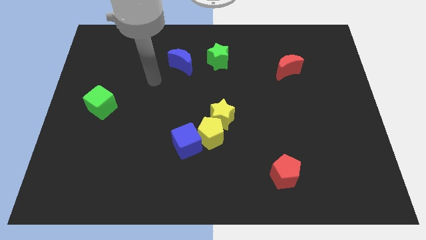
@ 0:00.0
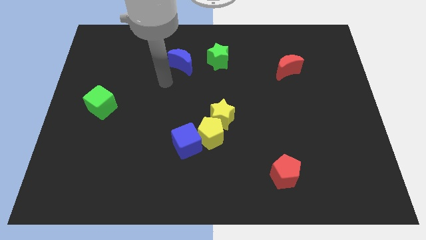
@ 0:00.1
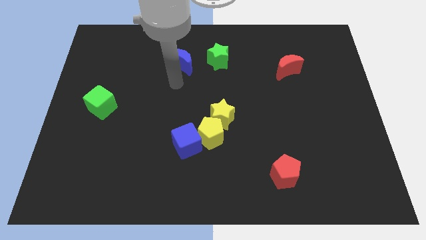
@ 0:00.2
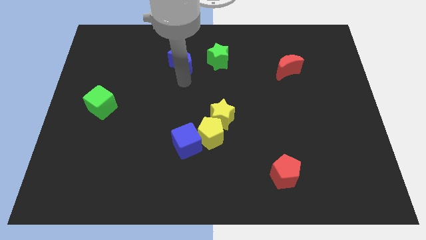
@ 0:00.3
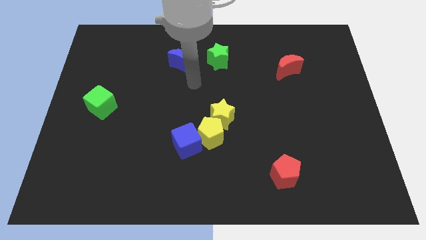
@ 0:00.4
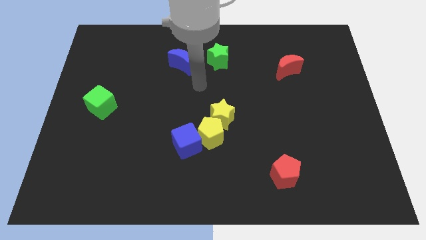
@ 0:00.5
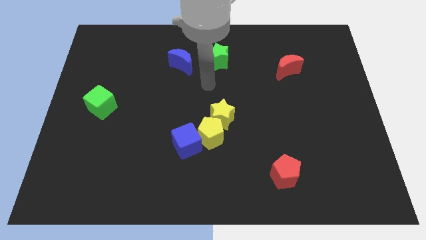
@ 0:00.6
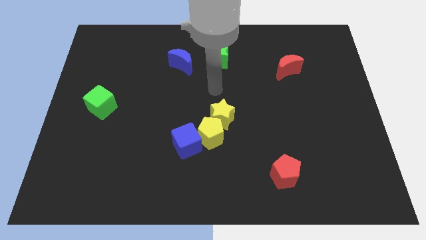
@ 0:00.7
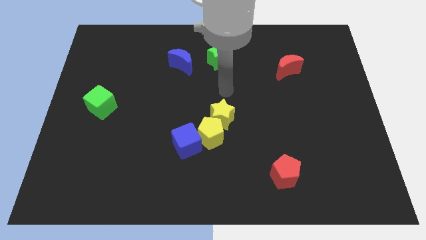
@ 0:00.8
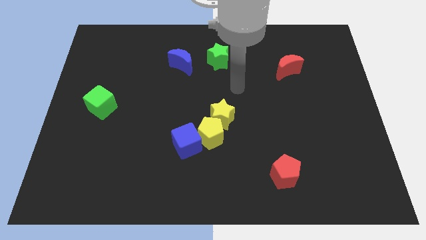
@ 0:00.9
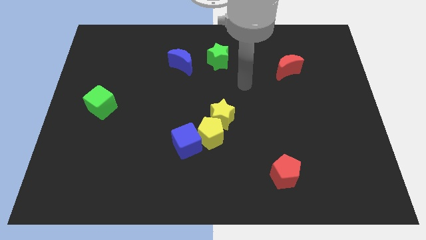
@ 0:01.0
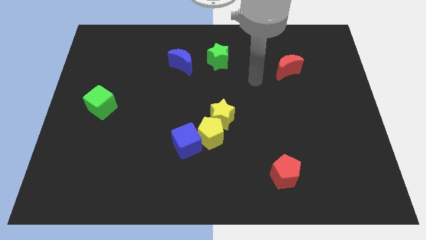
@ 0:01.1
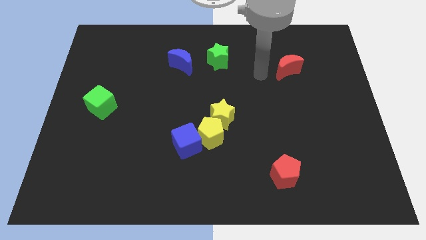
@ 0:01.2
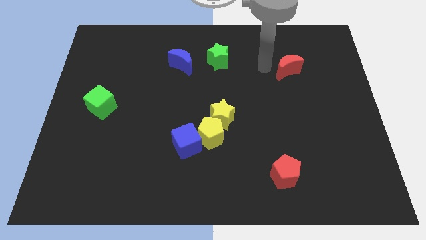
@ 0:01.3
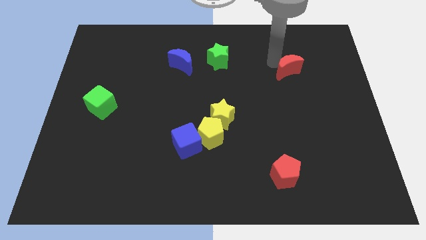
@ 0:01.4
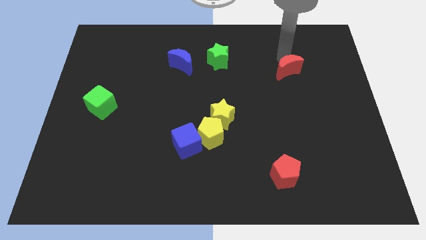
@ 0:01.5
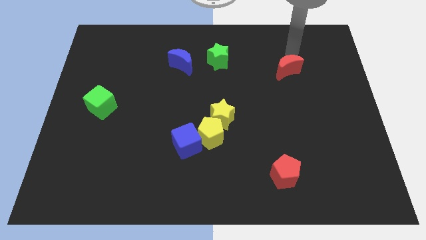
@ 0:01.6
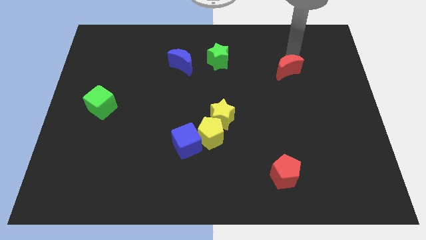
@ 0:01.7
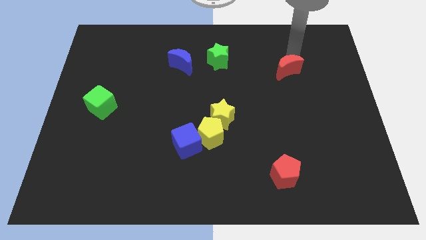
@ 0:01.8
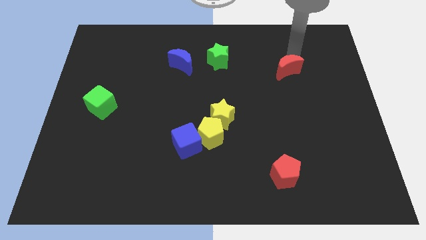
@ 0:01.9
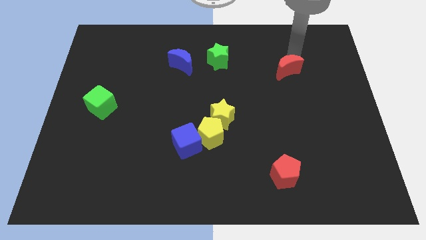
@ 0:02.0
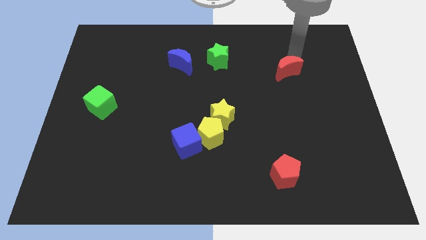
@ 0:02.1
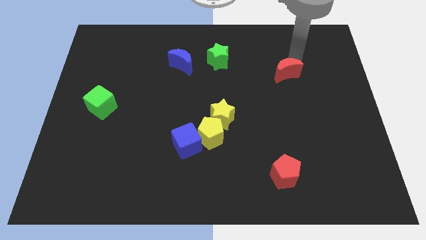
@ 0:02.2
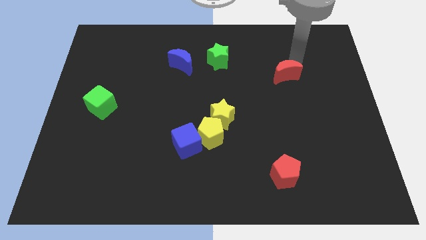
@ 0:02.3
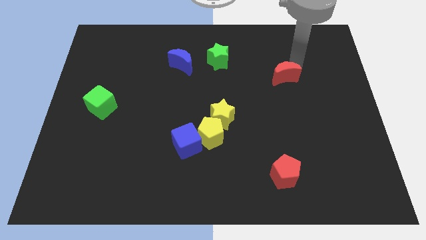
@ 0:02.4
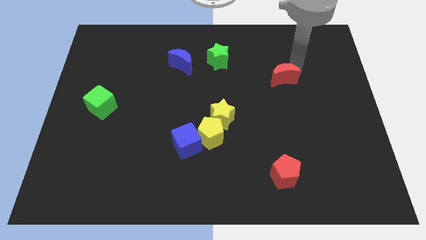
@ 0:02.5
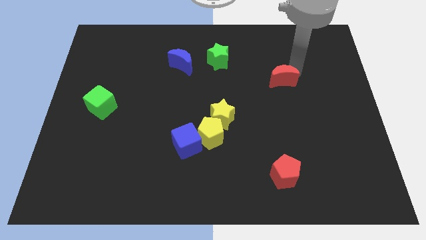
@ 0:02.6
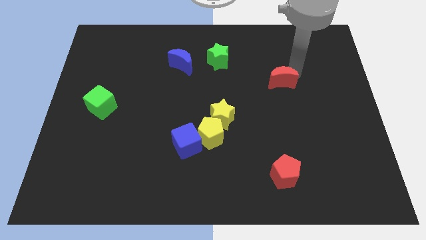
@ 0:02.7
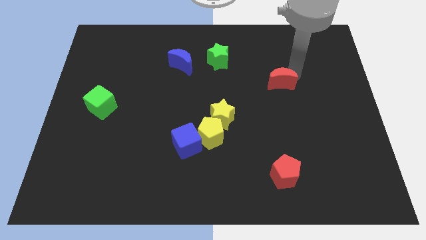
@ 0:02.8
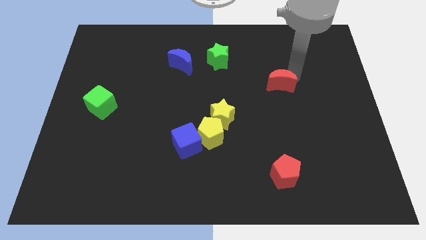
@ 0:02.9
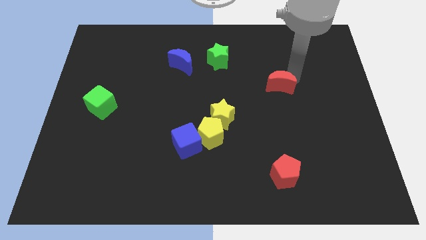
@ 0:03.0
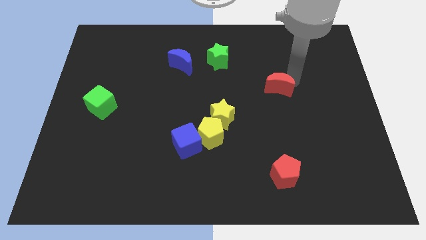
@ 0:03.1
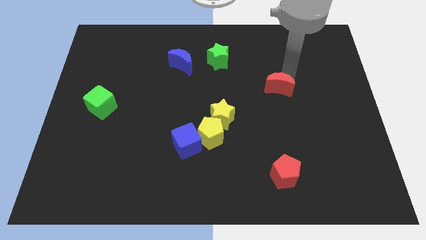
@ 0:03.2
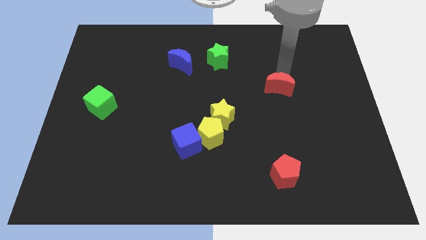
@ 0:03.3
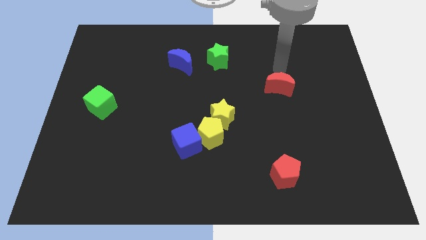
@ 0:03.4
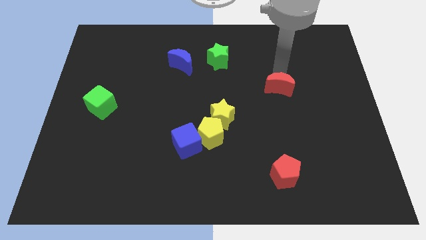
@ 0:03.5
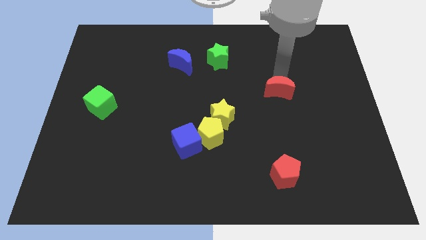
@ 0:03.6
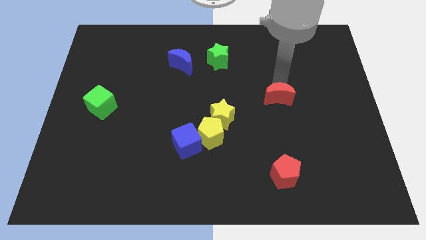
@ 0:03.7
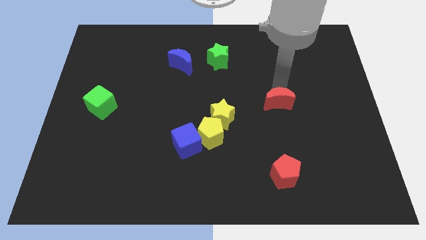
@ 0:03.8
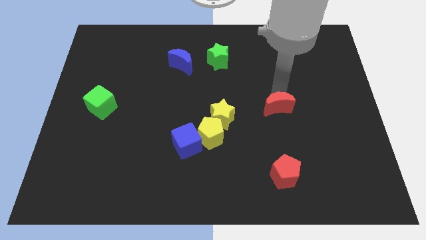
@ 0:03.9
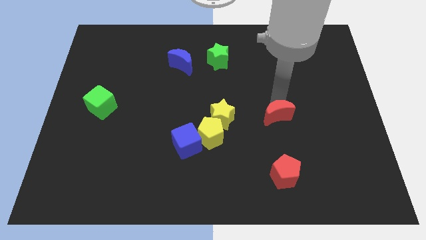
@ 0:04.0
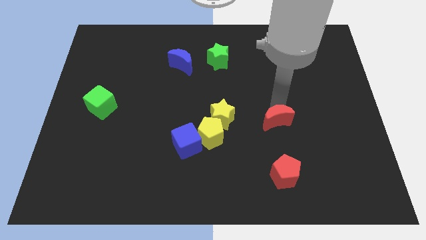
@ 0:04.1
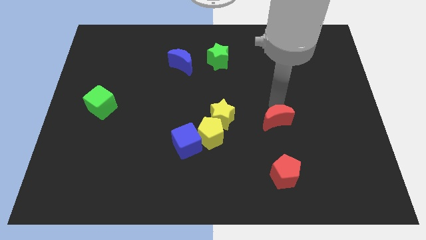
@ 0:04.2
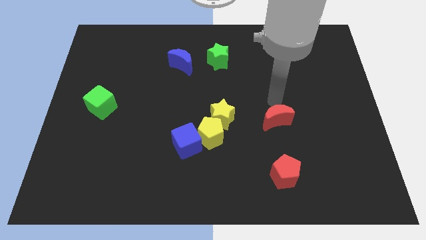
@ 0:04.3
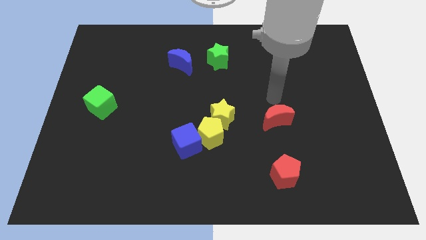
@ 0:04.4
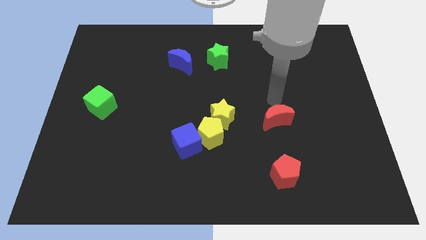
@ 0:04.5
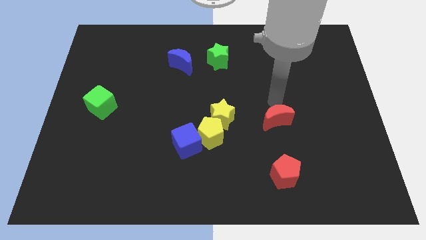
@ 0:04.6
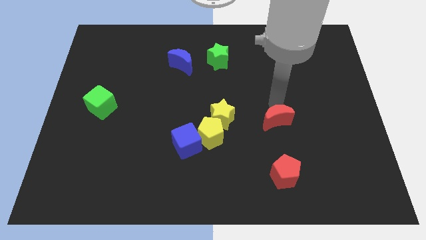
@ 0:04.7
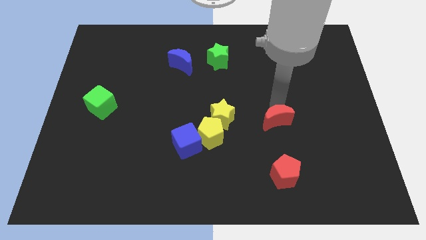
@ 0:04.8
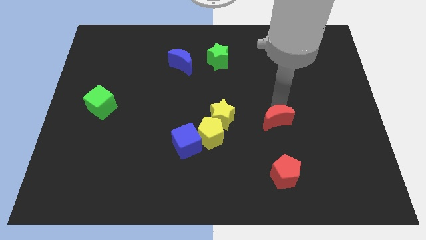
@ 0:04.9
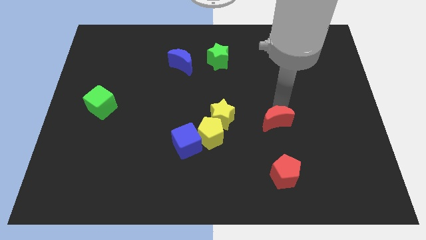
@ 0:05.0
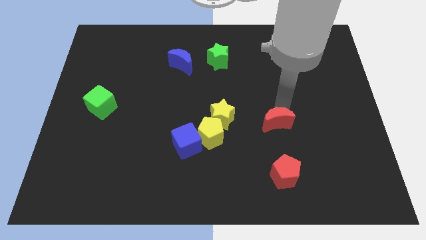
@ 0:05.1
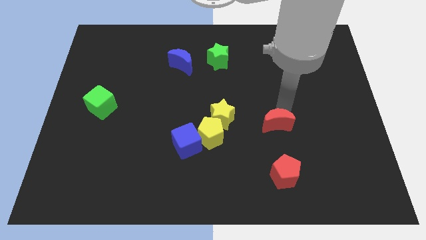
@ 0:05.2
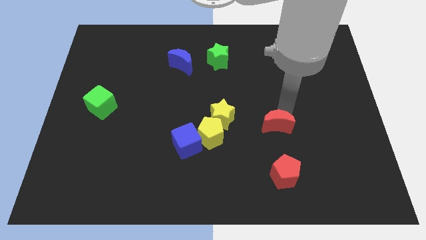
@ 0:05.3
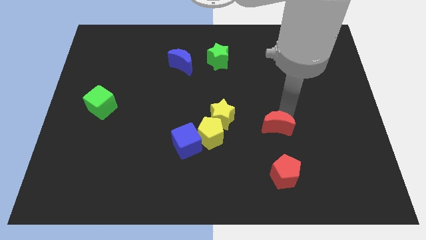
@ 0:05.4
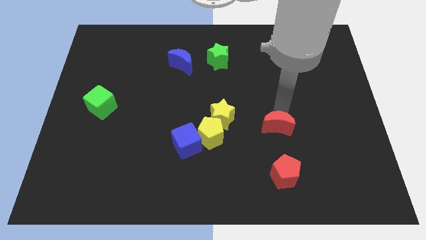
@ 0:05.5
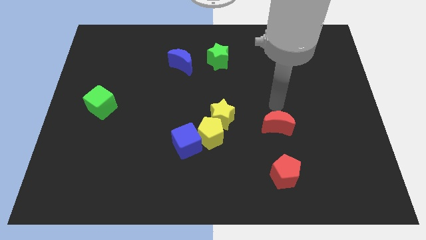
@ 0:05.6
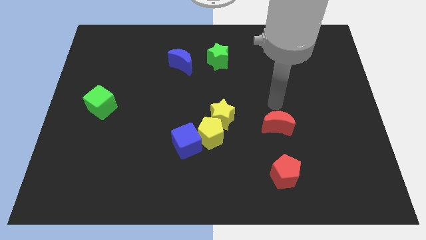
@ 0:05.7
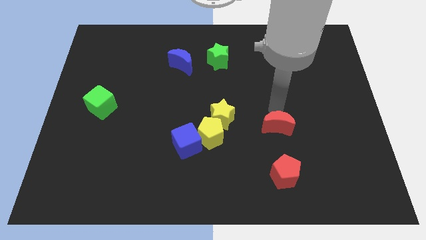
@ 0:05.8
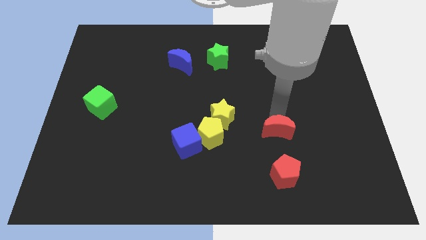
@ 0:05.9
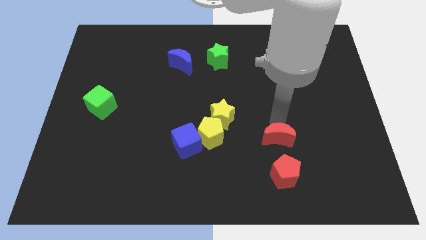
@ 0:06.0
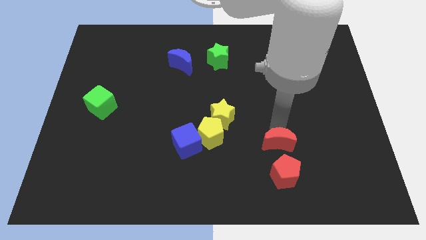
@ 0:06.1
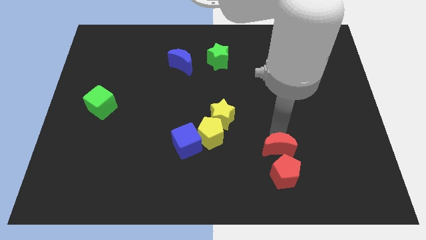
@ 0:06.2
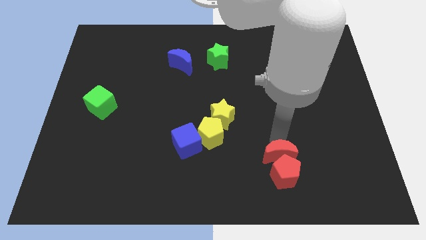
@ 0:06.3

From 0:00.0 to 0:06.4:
move the red moon close to the red pentagon

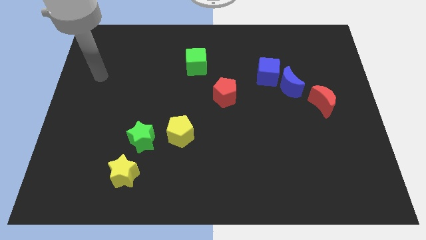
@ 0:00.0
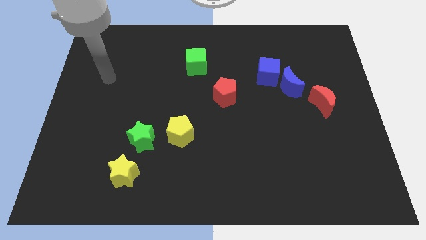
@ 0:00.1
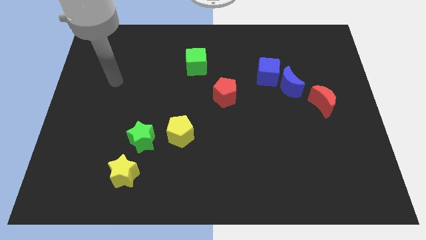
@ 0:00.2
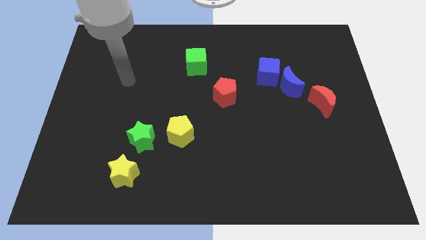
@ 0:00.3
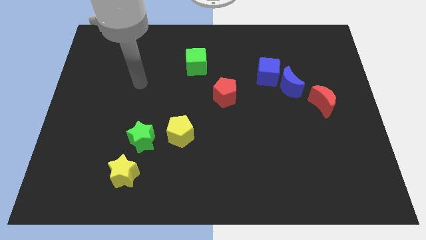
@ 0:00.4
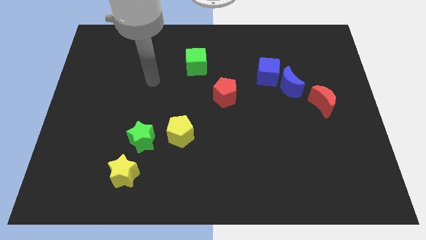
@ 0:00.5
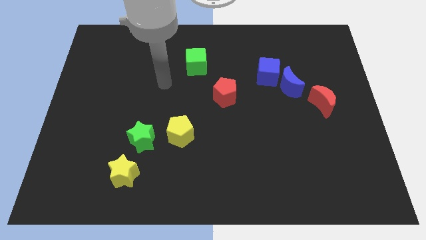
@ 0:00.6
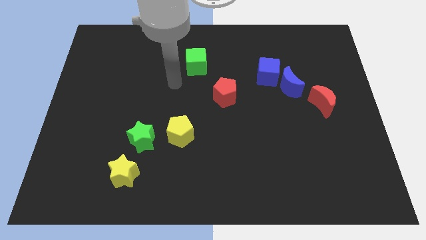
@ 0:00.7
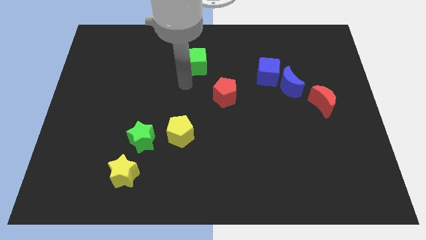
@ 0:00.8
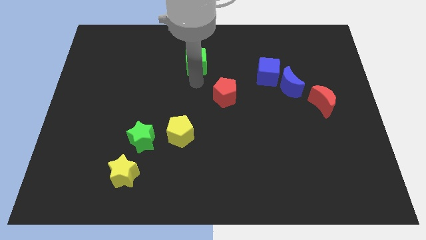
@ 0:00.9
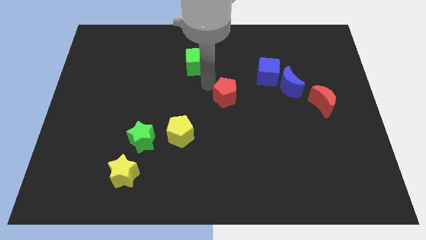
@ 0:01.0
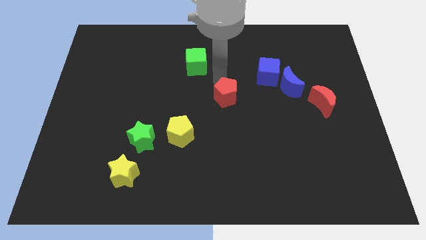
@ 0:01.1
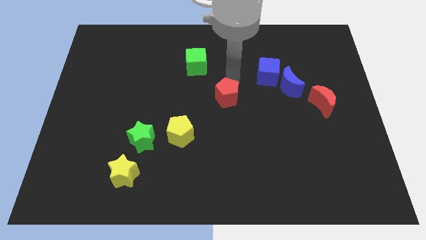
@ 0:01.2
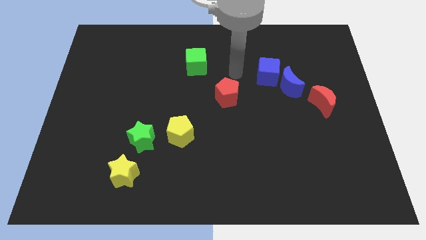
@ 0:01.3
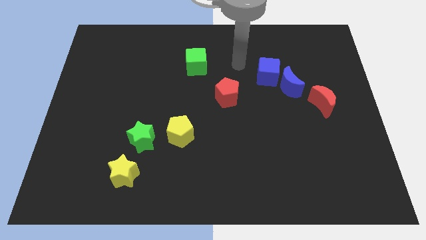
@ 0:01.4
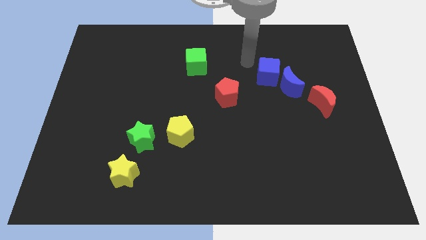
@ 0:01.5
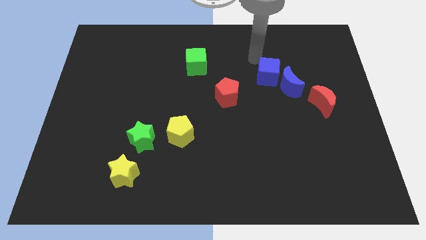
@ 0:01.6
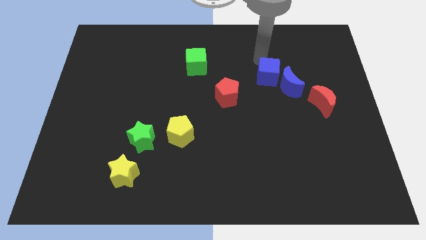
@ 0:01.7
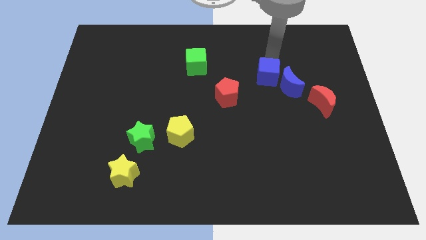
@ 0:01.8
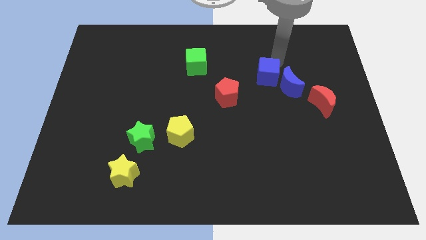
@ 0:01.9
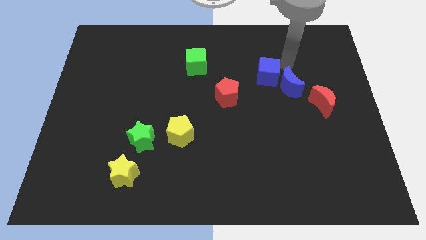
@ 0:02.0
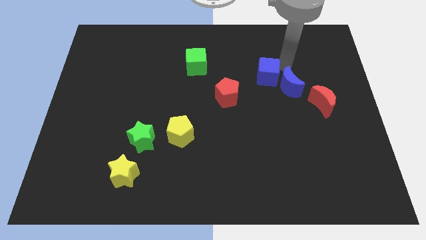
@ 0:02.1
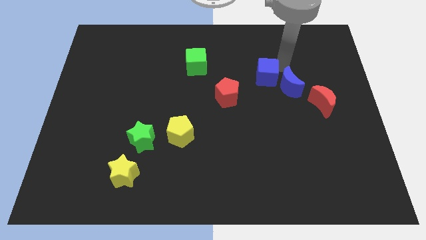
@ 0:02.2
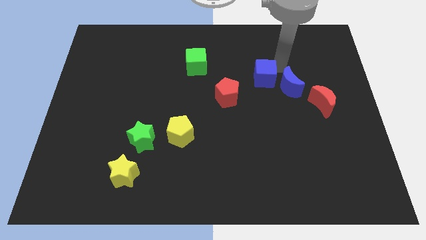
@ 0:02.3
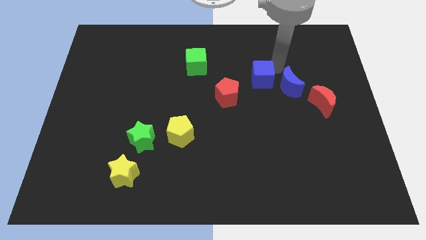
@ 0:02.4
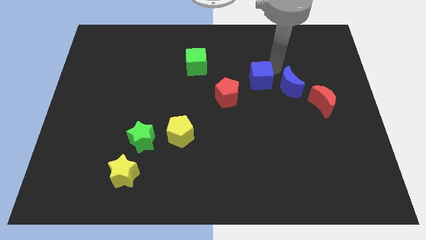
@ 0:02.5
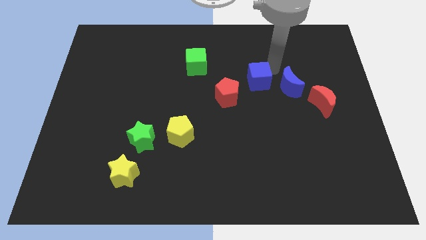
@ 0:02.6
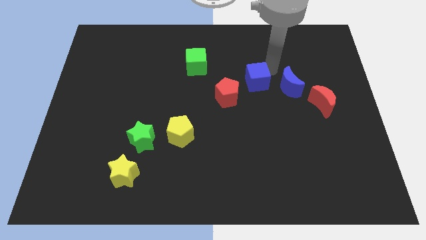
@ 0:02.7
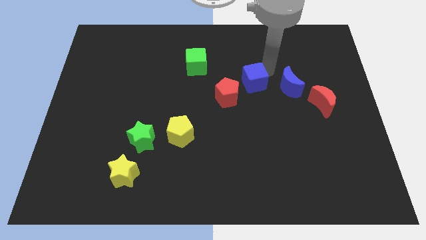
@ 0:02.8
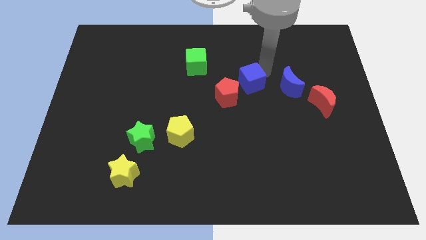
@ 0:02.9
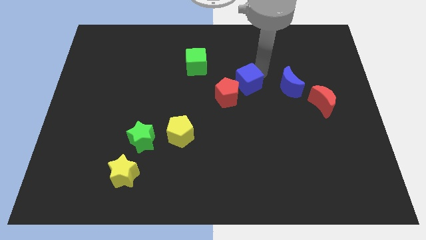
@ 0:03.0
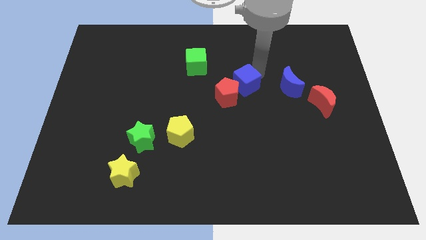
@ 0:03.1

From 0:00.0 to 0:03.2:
slide the blue cube to the red pentagon
